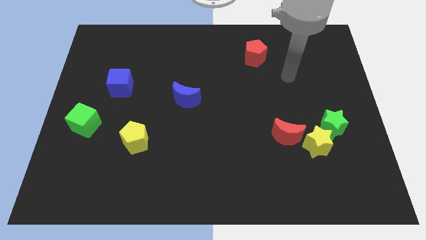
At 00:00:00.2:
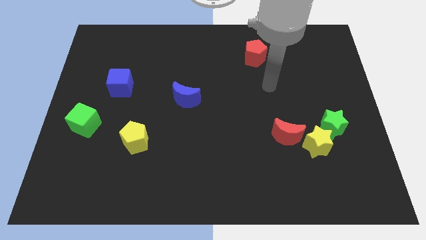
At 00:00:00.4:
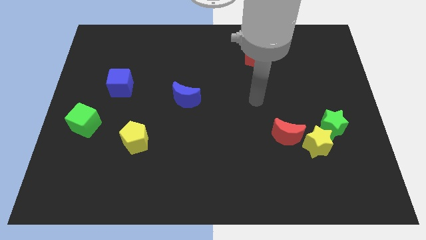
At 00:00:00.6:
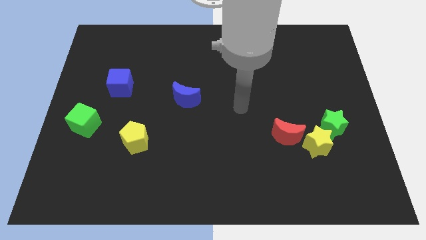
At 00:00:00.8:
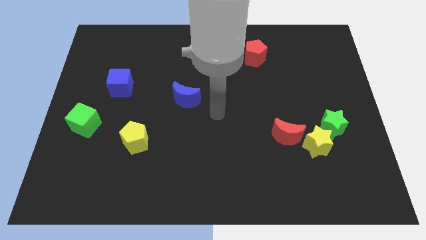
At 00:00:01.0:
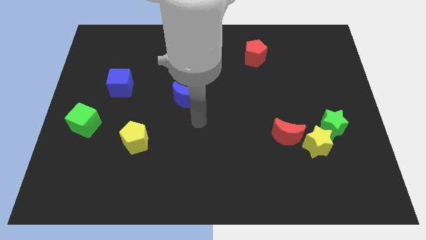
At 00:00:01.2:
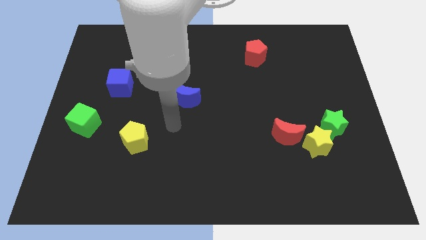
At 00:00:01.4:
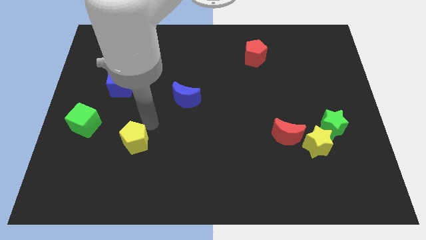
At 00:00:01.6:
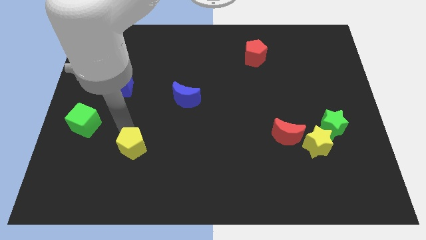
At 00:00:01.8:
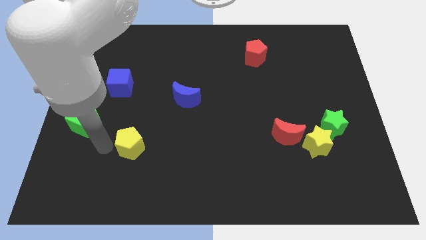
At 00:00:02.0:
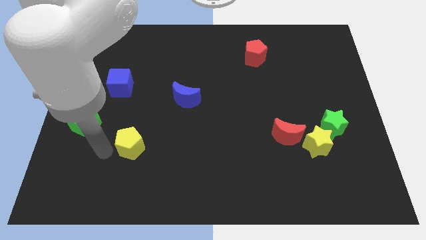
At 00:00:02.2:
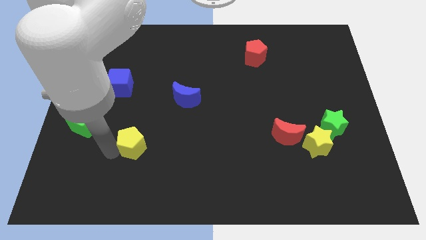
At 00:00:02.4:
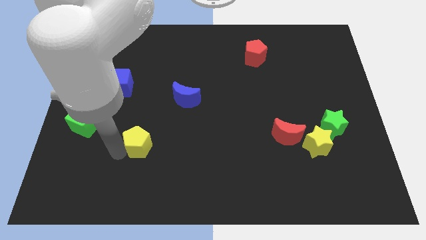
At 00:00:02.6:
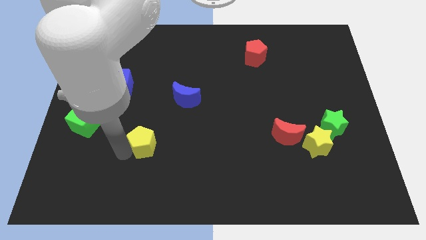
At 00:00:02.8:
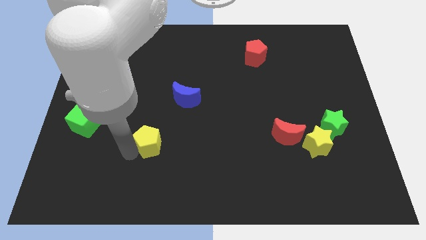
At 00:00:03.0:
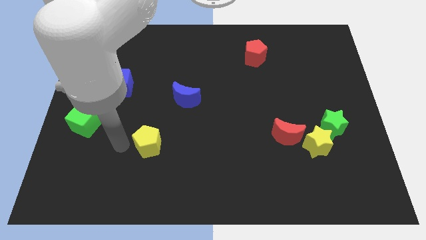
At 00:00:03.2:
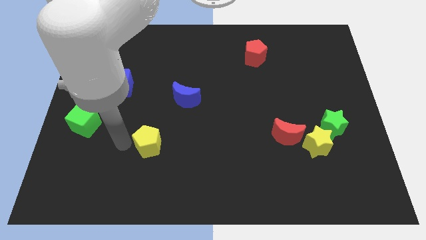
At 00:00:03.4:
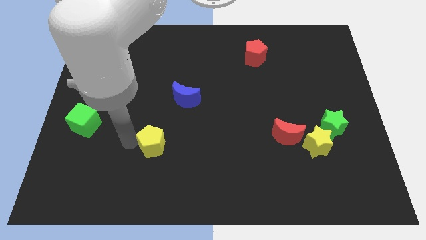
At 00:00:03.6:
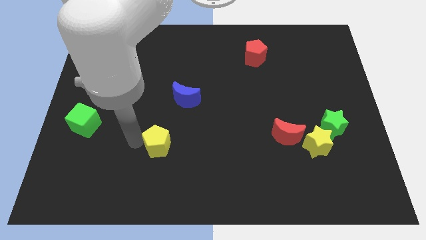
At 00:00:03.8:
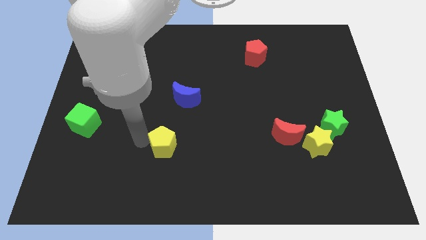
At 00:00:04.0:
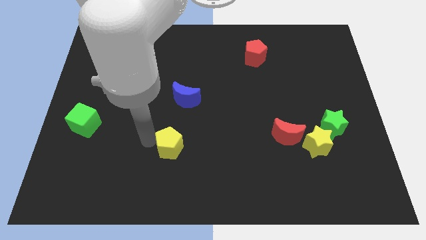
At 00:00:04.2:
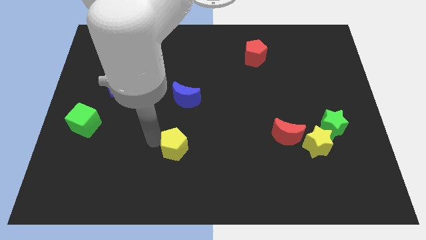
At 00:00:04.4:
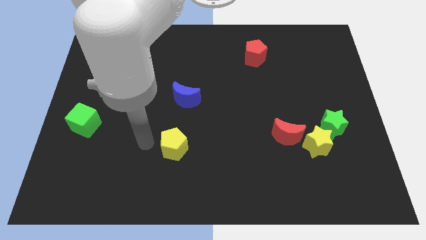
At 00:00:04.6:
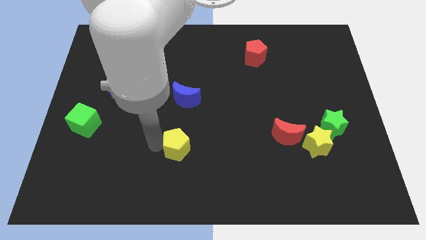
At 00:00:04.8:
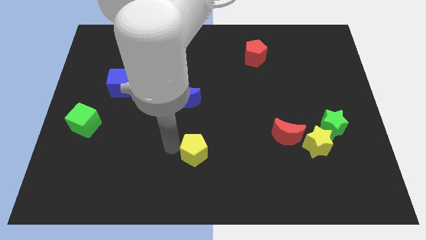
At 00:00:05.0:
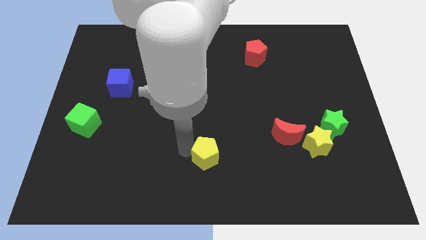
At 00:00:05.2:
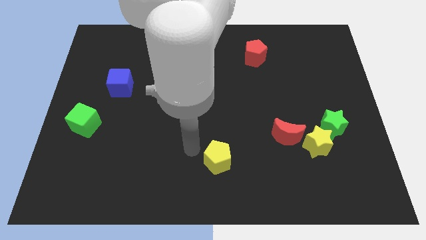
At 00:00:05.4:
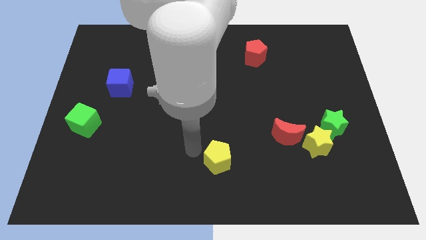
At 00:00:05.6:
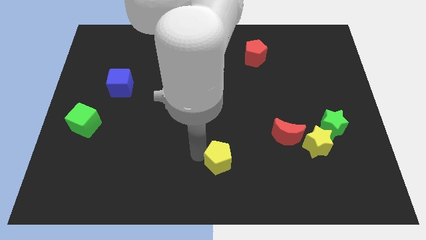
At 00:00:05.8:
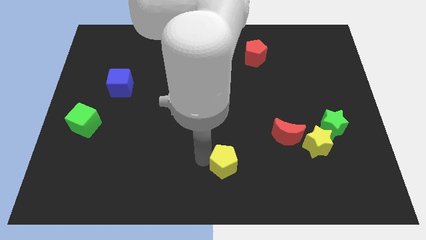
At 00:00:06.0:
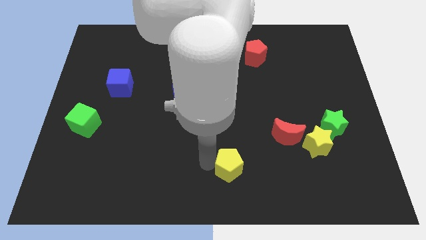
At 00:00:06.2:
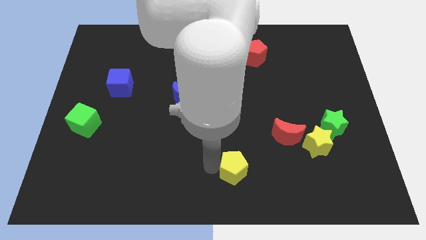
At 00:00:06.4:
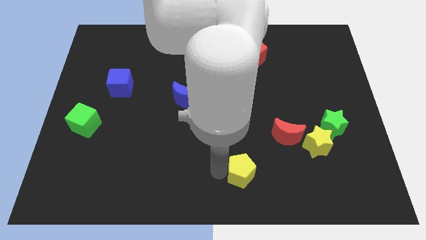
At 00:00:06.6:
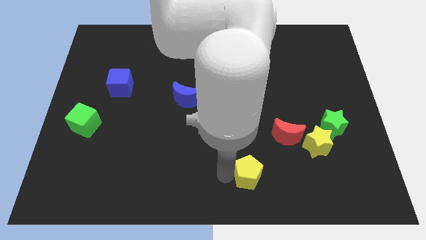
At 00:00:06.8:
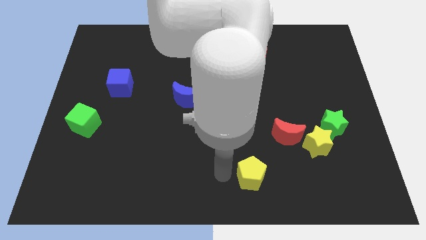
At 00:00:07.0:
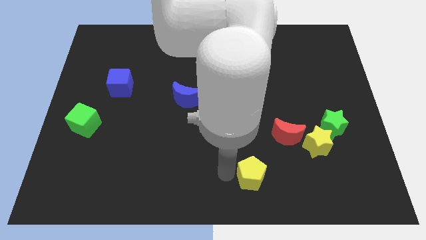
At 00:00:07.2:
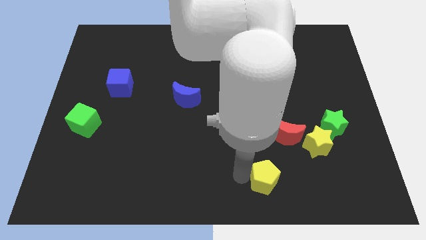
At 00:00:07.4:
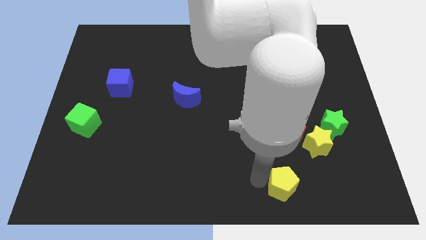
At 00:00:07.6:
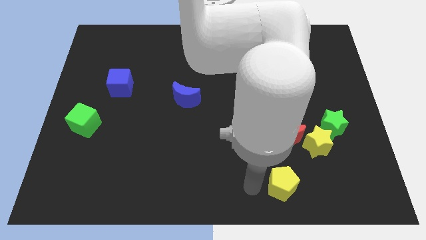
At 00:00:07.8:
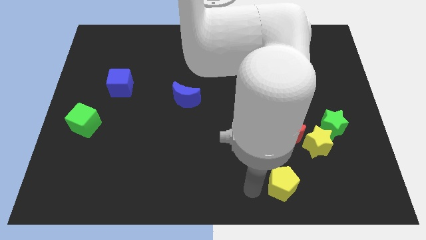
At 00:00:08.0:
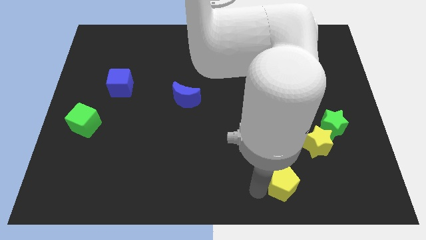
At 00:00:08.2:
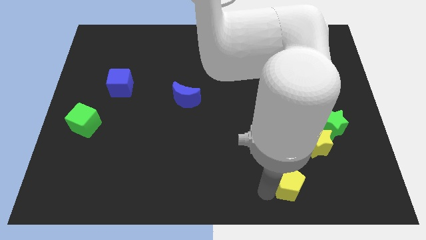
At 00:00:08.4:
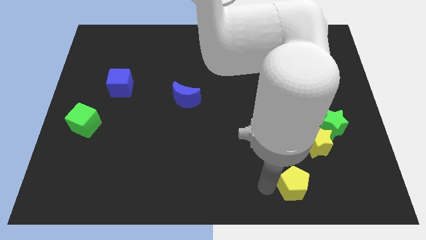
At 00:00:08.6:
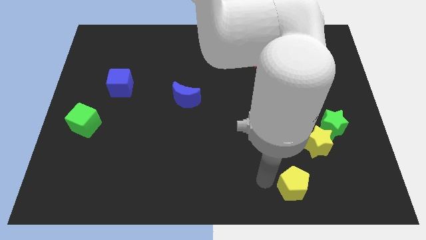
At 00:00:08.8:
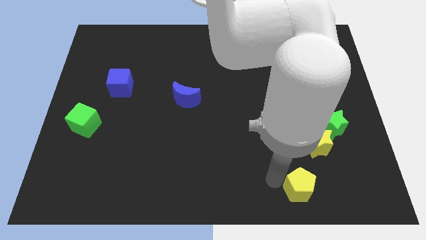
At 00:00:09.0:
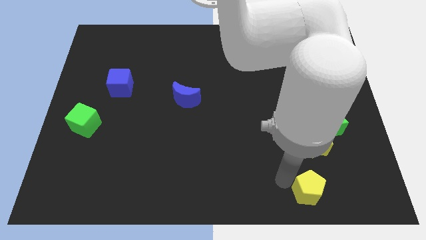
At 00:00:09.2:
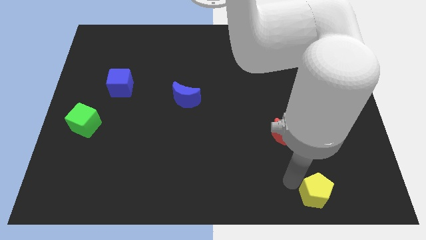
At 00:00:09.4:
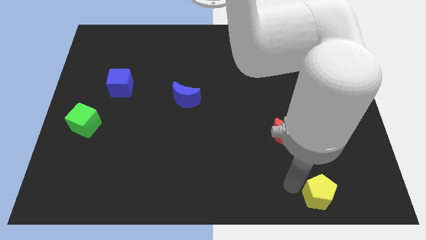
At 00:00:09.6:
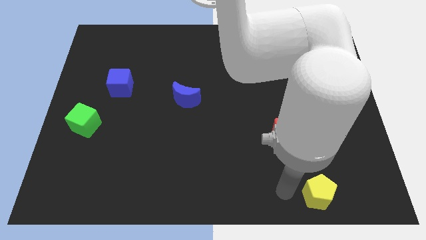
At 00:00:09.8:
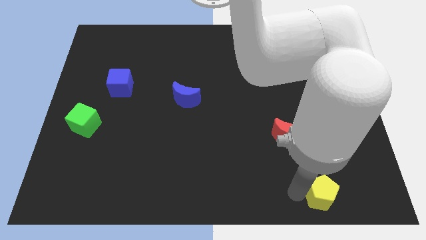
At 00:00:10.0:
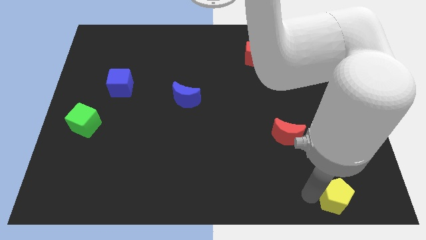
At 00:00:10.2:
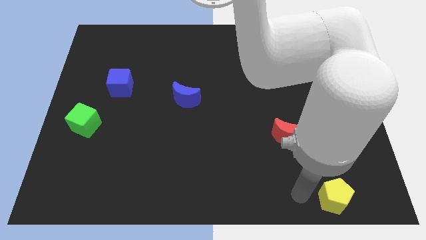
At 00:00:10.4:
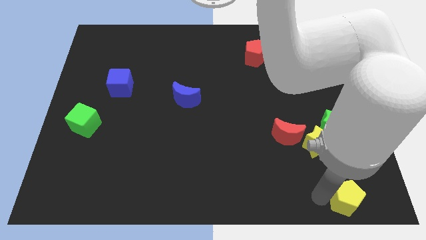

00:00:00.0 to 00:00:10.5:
put the yellow pentagon to the bottom right corner
